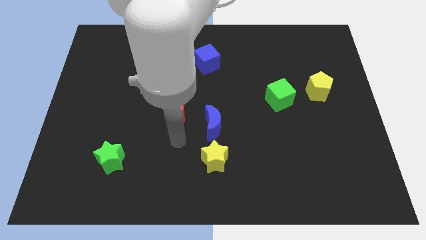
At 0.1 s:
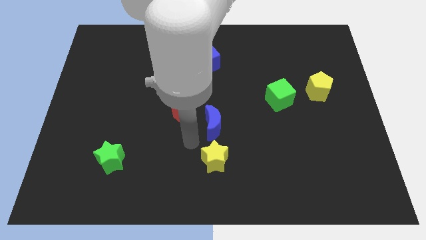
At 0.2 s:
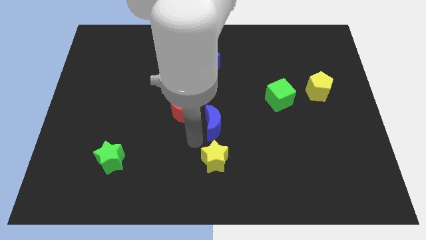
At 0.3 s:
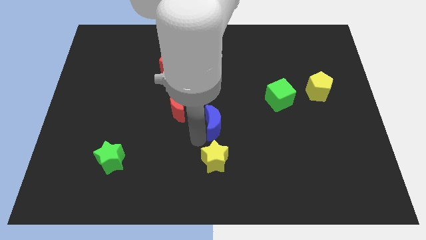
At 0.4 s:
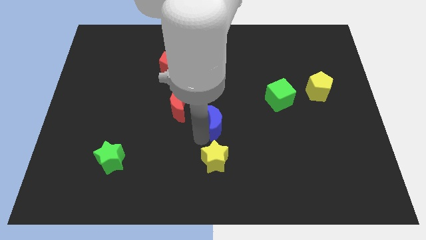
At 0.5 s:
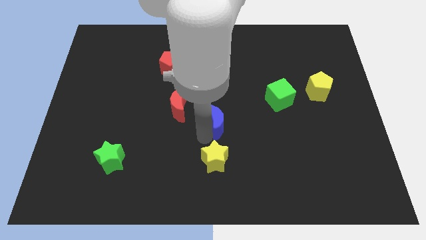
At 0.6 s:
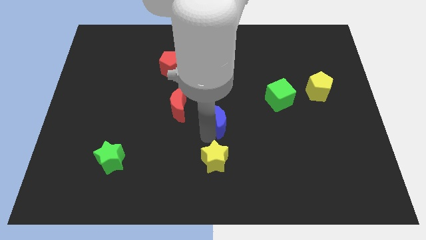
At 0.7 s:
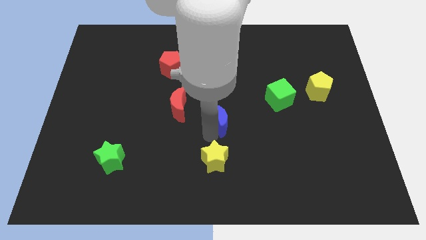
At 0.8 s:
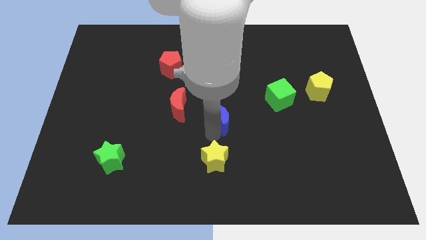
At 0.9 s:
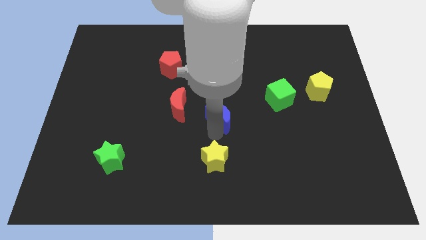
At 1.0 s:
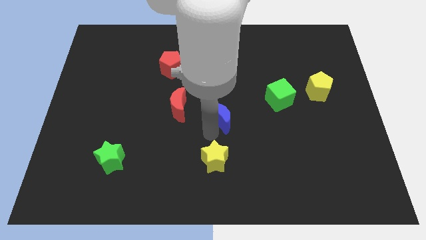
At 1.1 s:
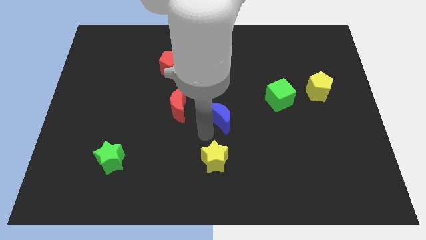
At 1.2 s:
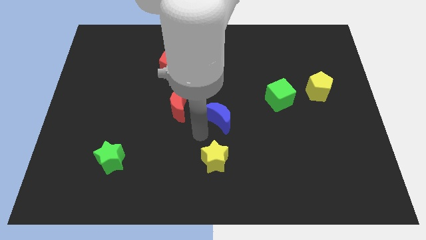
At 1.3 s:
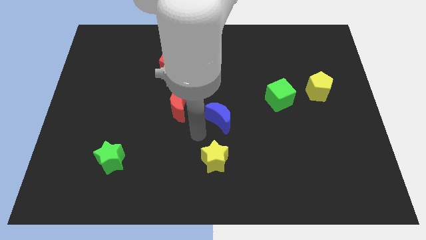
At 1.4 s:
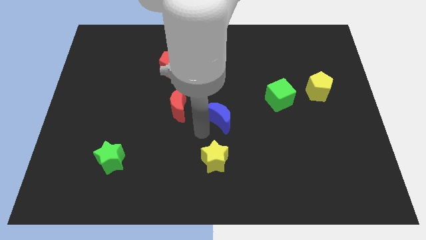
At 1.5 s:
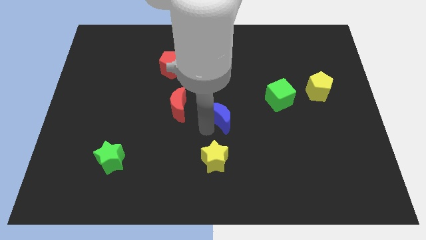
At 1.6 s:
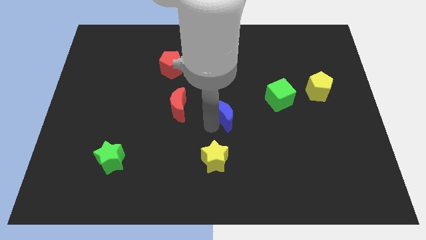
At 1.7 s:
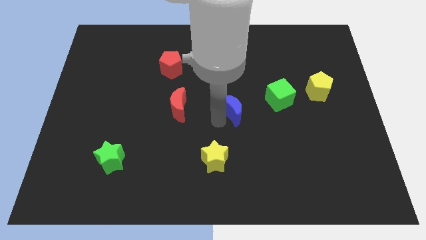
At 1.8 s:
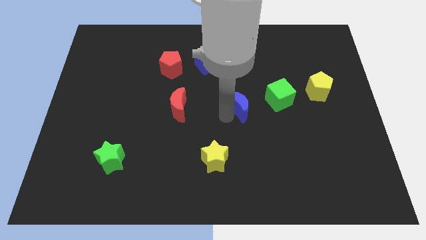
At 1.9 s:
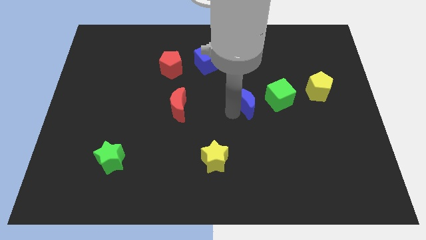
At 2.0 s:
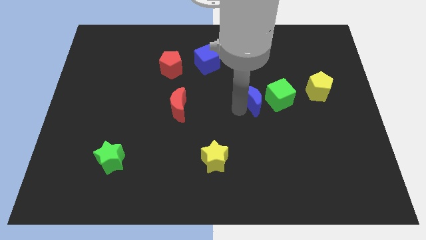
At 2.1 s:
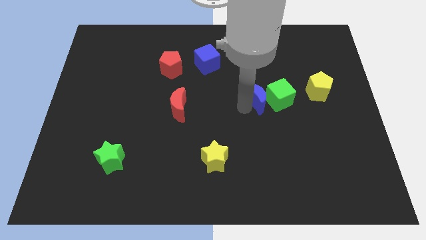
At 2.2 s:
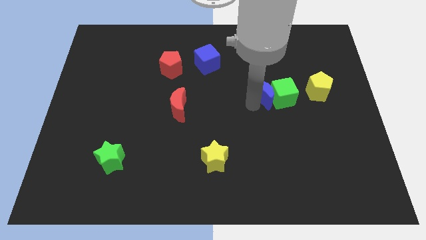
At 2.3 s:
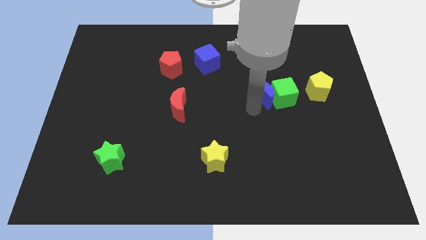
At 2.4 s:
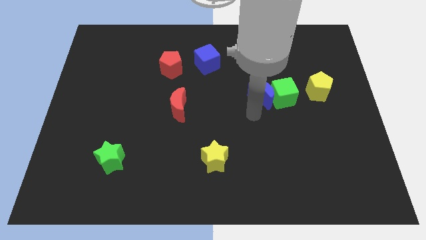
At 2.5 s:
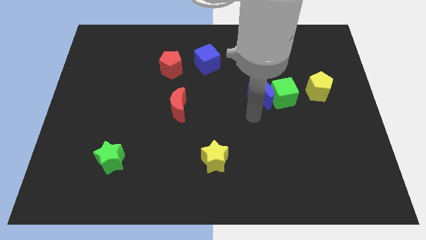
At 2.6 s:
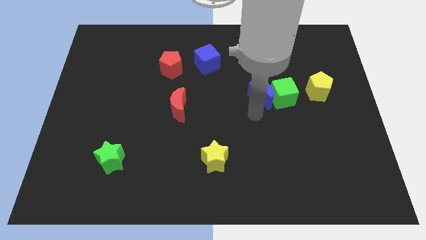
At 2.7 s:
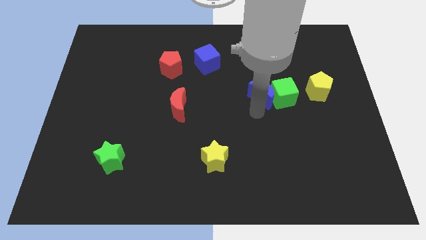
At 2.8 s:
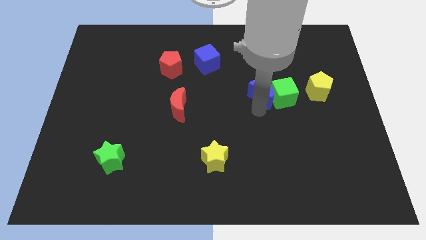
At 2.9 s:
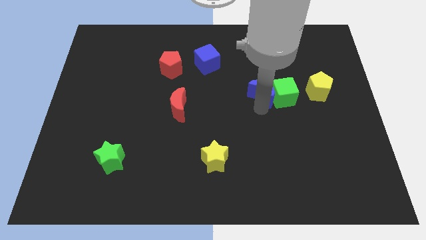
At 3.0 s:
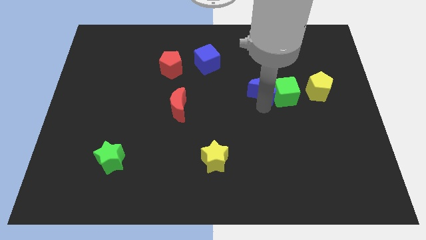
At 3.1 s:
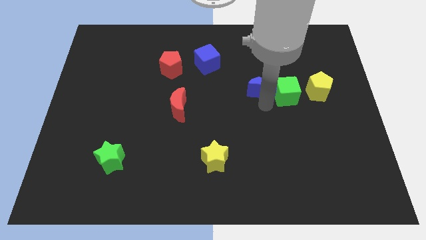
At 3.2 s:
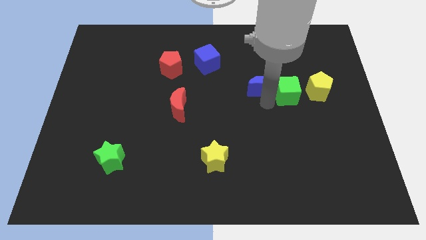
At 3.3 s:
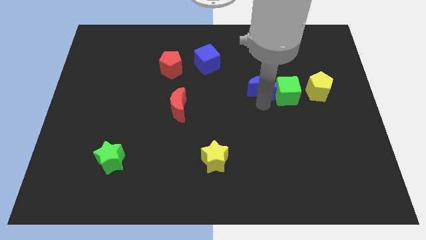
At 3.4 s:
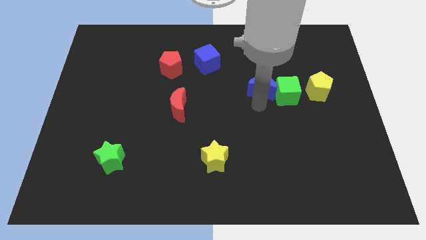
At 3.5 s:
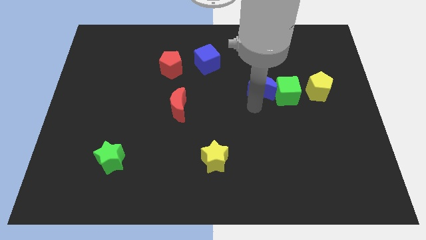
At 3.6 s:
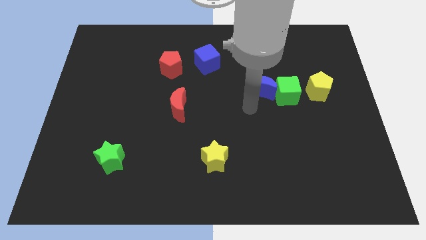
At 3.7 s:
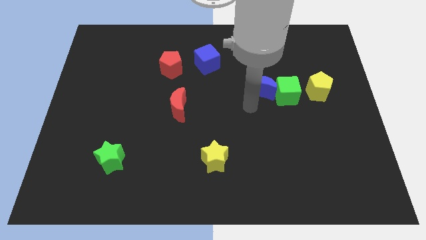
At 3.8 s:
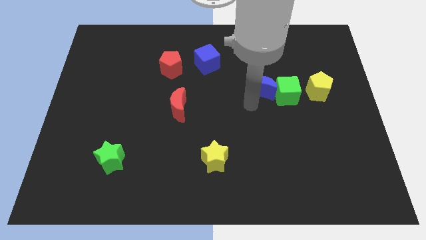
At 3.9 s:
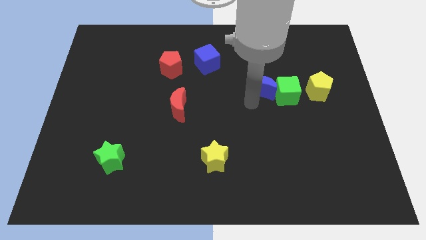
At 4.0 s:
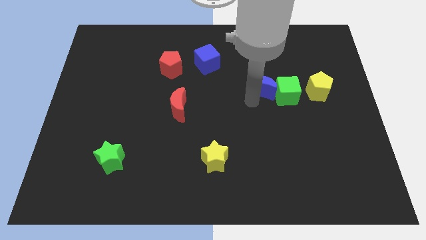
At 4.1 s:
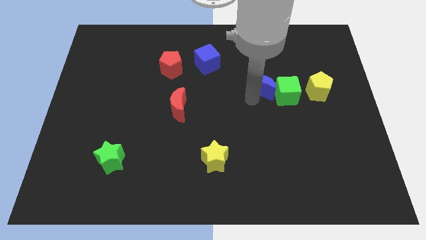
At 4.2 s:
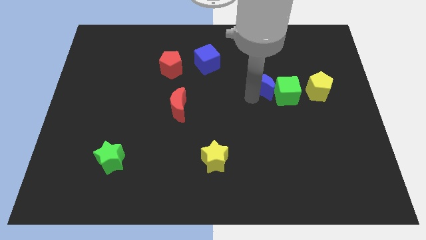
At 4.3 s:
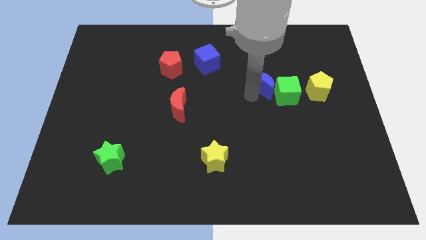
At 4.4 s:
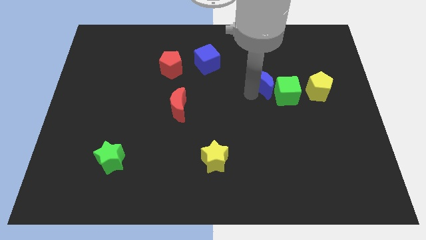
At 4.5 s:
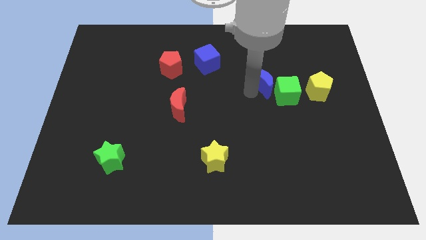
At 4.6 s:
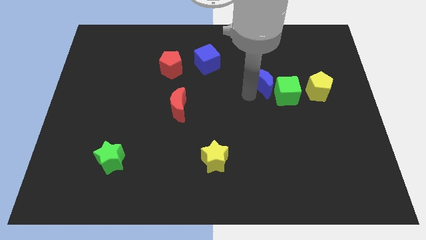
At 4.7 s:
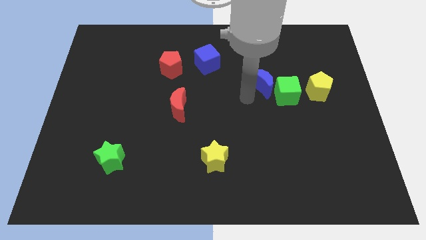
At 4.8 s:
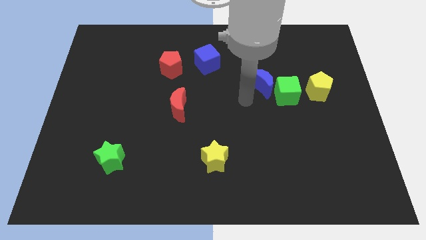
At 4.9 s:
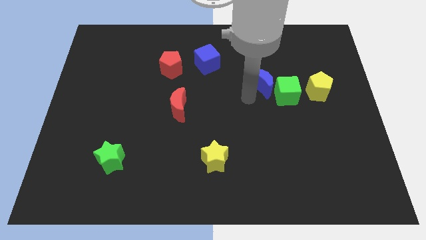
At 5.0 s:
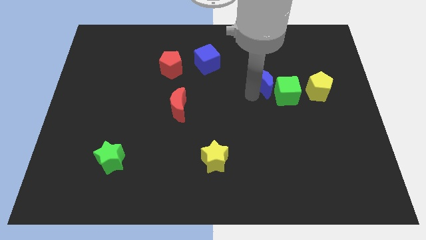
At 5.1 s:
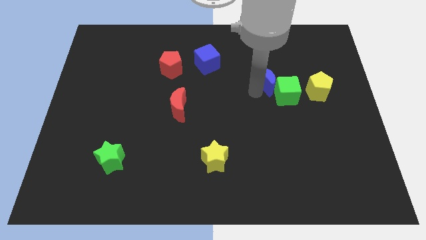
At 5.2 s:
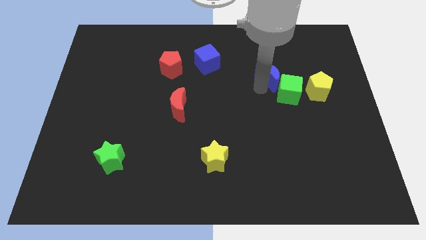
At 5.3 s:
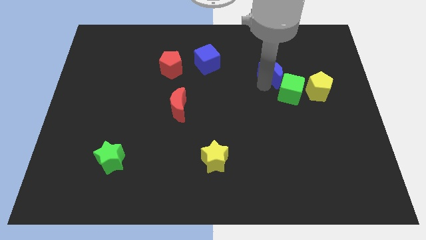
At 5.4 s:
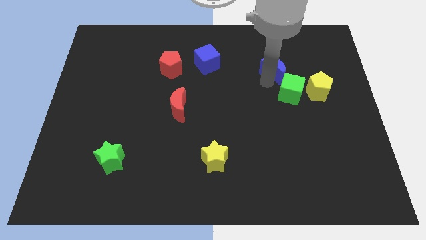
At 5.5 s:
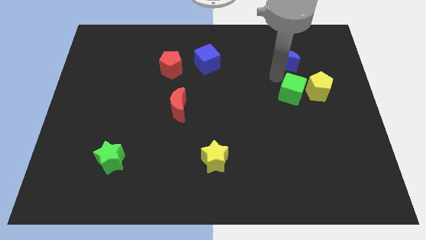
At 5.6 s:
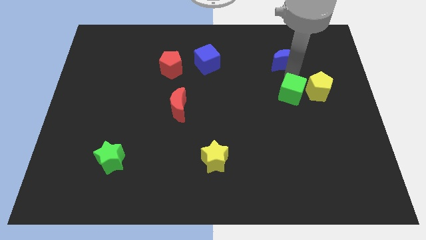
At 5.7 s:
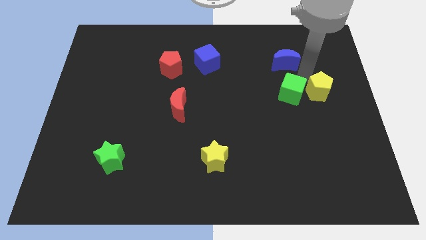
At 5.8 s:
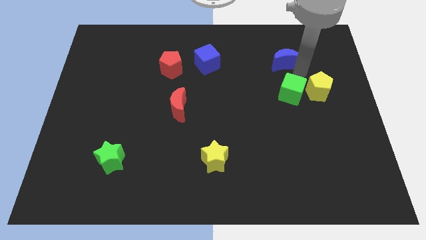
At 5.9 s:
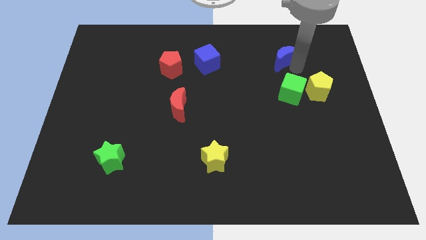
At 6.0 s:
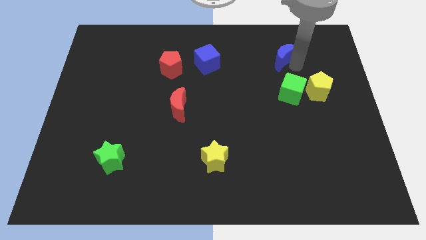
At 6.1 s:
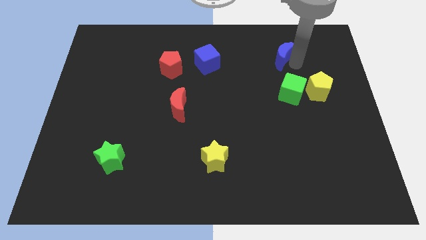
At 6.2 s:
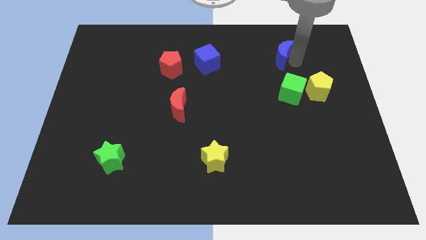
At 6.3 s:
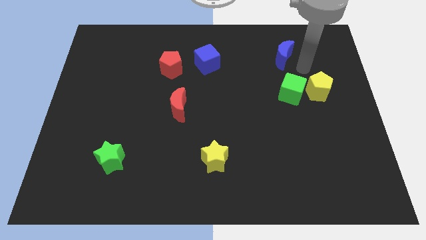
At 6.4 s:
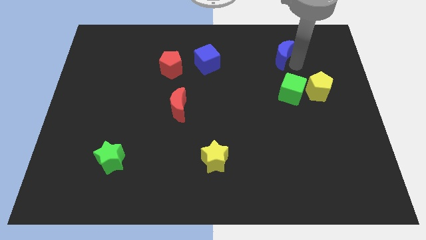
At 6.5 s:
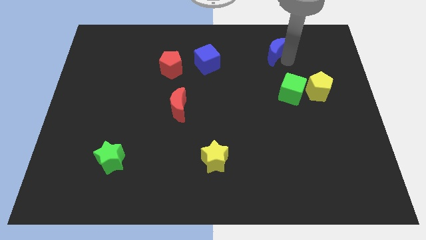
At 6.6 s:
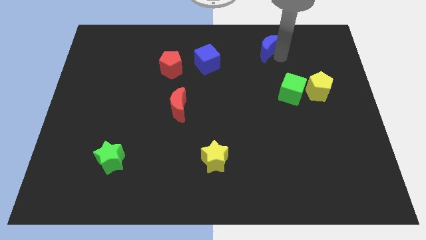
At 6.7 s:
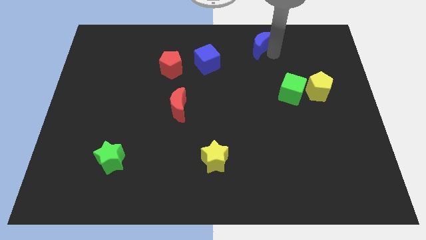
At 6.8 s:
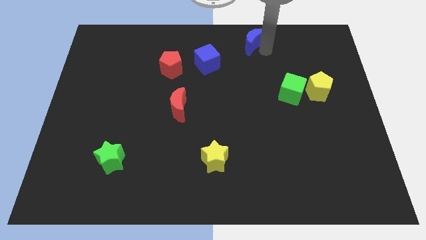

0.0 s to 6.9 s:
move the blue moon to the top

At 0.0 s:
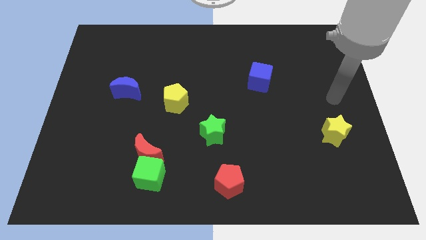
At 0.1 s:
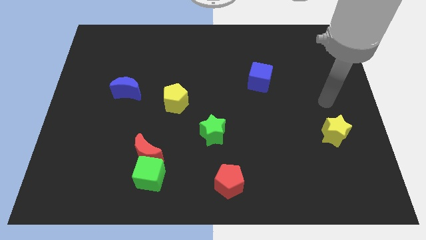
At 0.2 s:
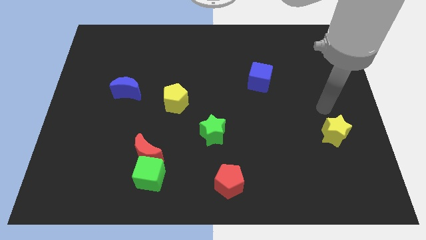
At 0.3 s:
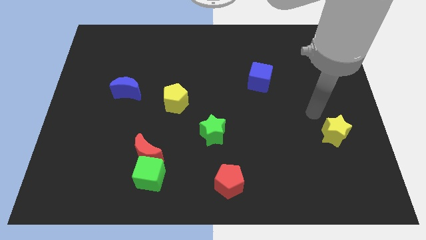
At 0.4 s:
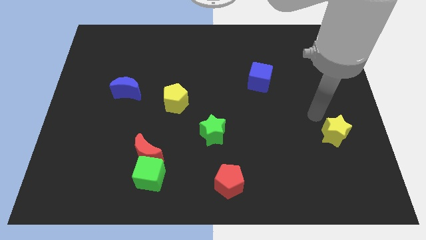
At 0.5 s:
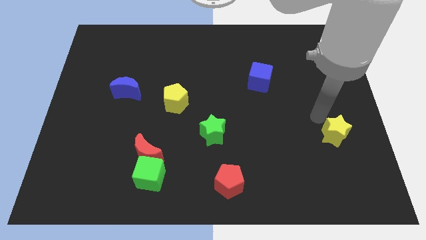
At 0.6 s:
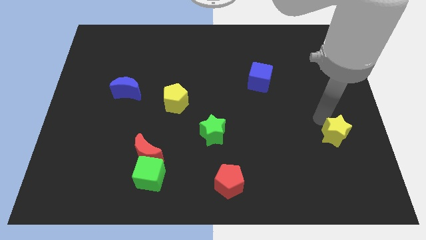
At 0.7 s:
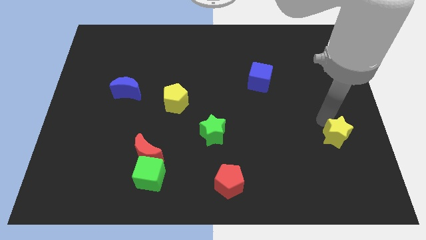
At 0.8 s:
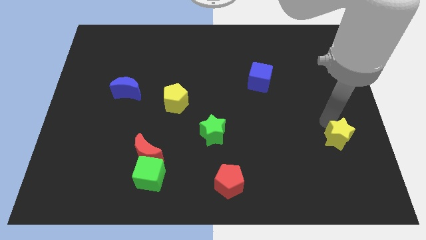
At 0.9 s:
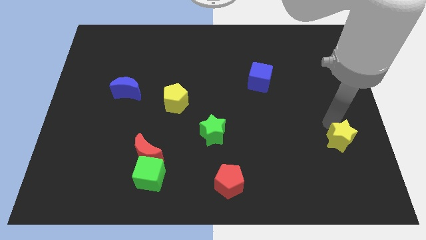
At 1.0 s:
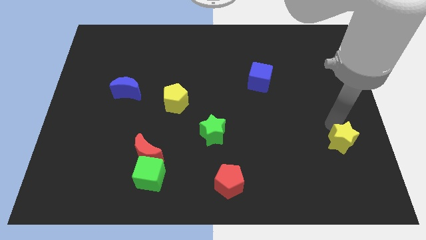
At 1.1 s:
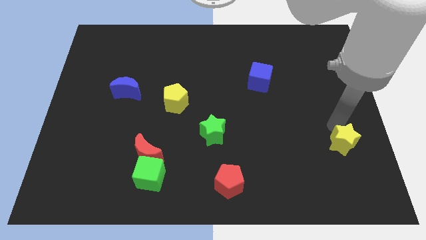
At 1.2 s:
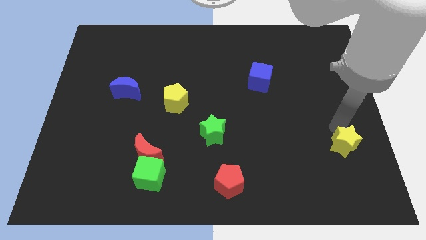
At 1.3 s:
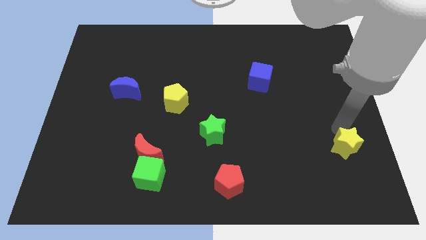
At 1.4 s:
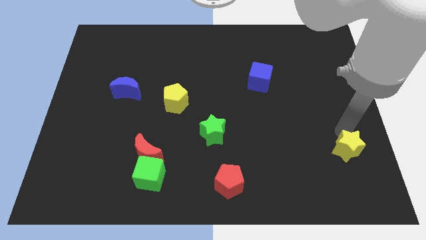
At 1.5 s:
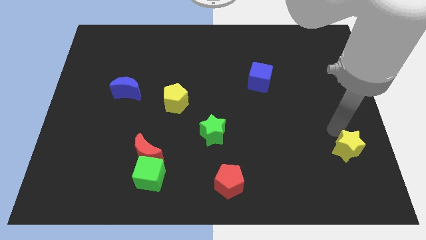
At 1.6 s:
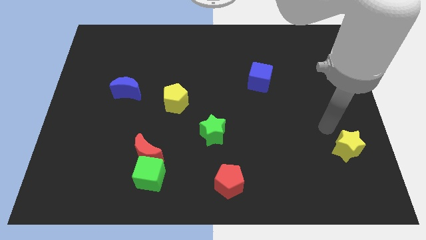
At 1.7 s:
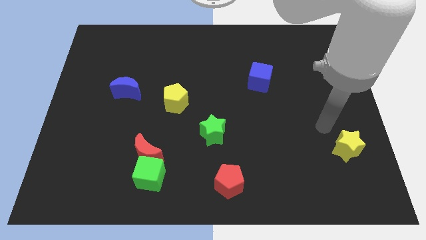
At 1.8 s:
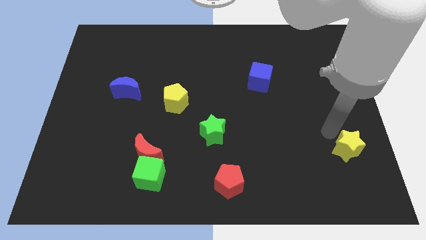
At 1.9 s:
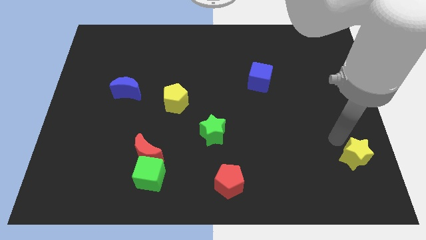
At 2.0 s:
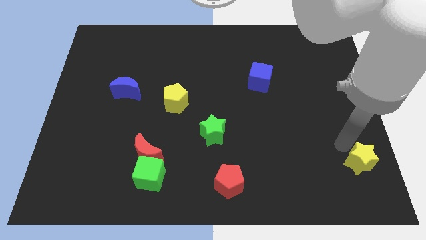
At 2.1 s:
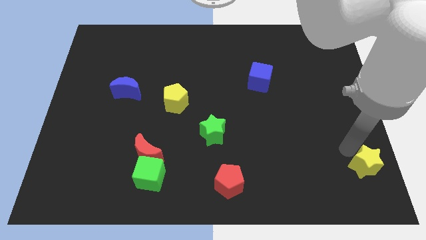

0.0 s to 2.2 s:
put the yellow star to the bottom right
